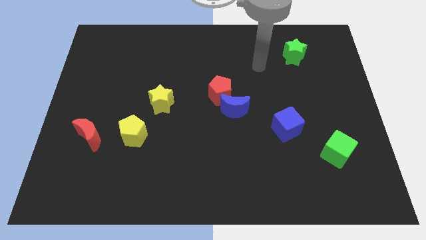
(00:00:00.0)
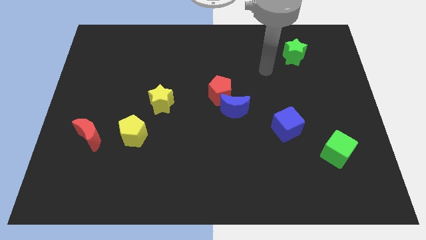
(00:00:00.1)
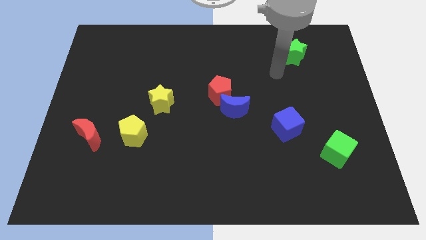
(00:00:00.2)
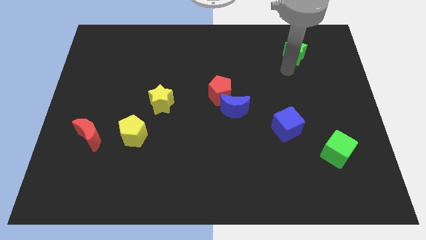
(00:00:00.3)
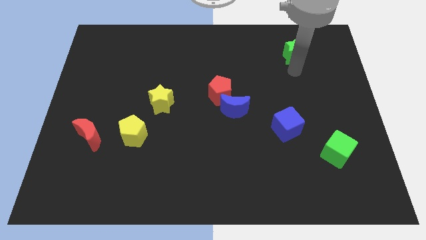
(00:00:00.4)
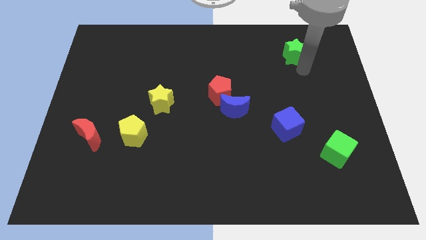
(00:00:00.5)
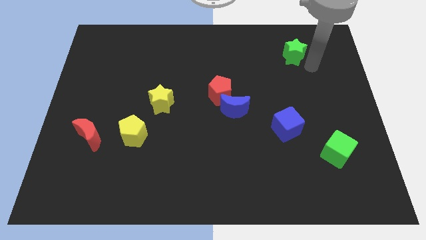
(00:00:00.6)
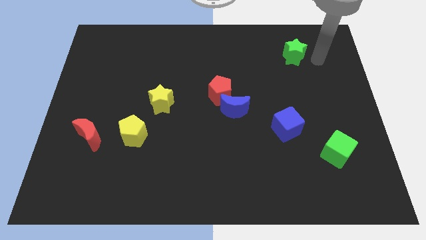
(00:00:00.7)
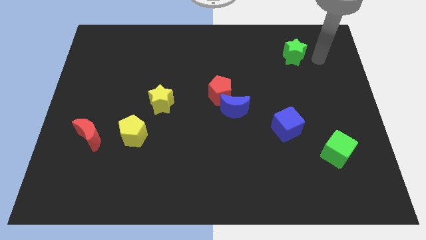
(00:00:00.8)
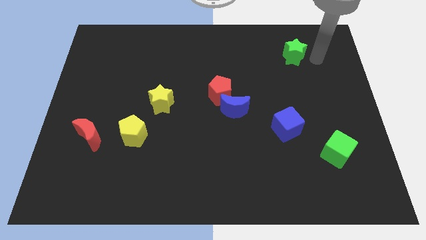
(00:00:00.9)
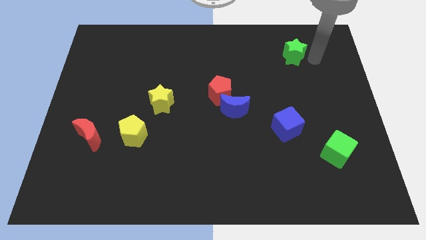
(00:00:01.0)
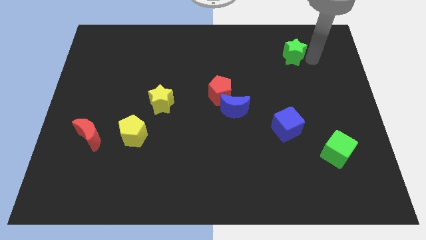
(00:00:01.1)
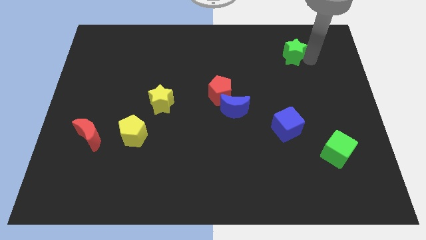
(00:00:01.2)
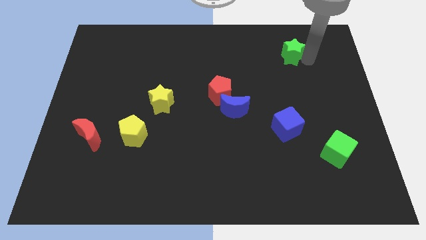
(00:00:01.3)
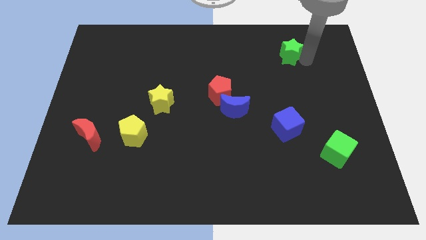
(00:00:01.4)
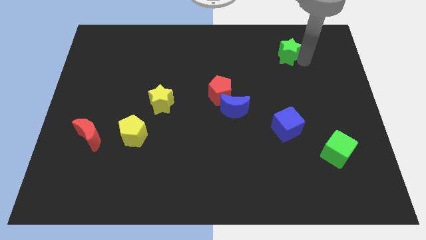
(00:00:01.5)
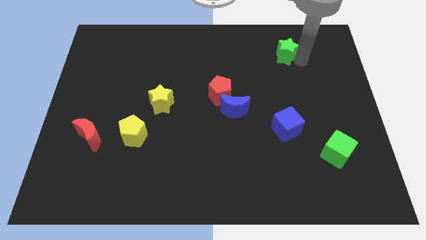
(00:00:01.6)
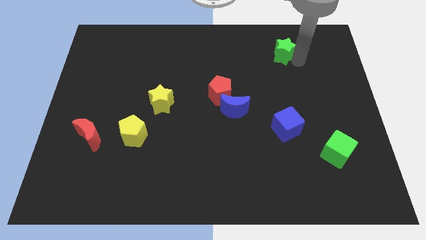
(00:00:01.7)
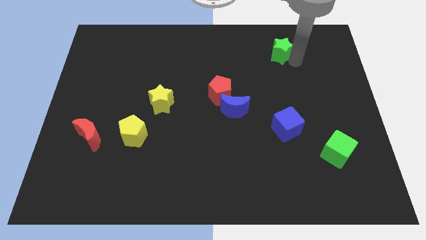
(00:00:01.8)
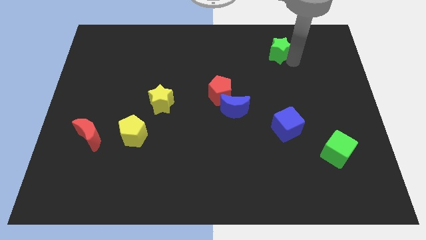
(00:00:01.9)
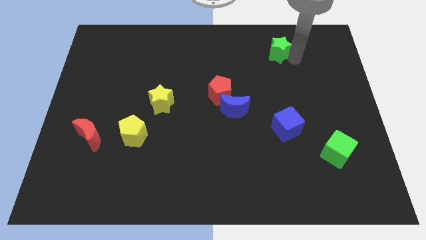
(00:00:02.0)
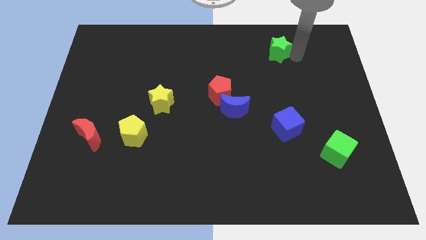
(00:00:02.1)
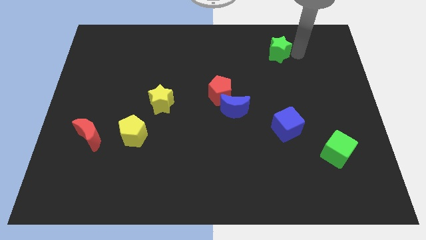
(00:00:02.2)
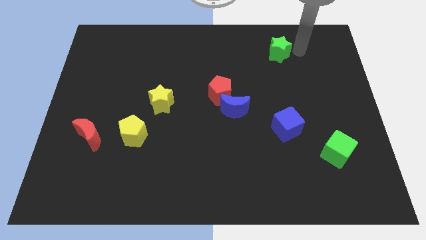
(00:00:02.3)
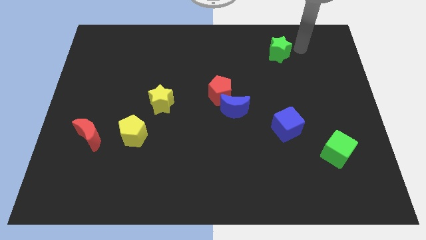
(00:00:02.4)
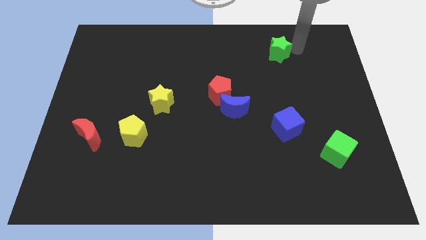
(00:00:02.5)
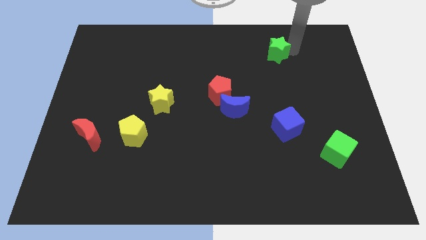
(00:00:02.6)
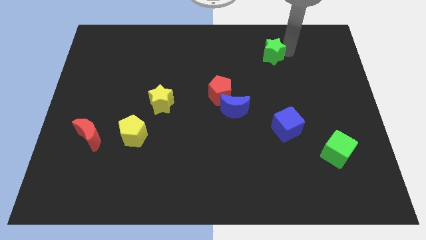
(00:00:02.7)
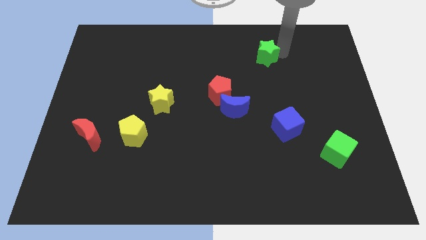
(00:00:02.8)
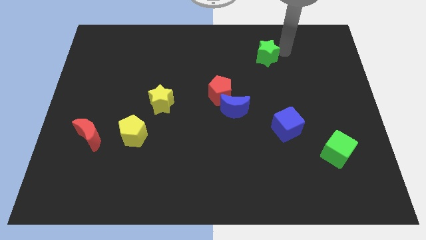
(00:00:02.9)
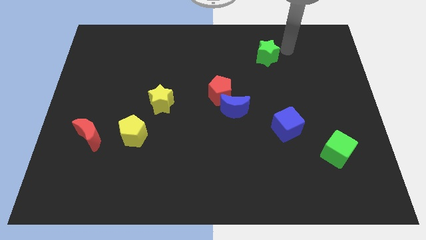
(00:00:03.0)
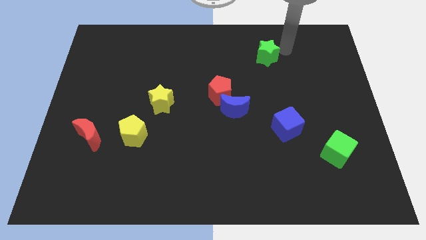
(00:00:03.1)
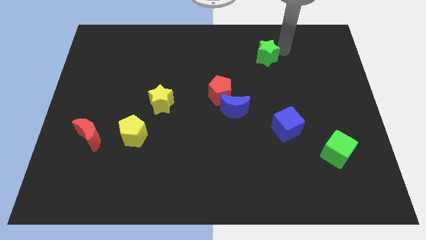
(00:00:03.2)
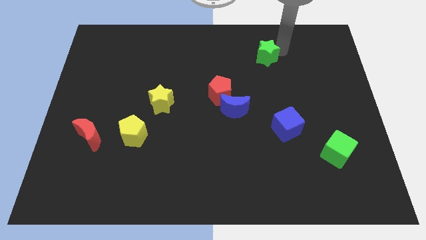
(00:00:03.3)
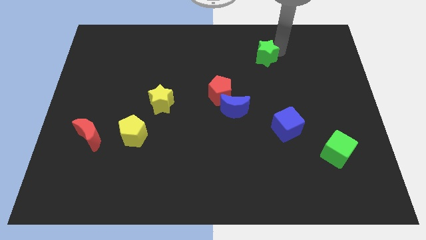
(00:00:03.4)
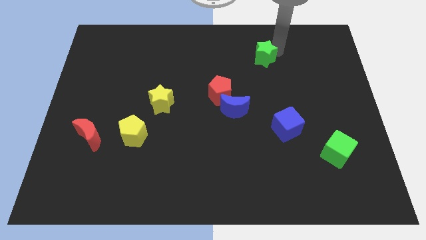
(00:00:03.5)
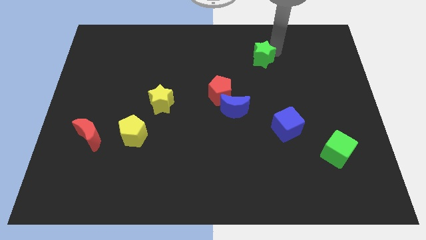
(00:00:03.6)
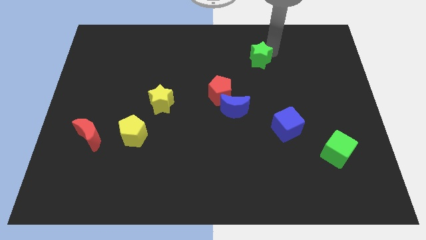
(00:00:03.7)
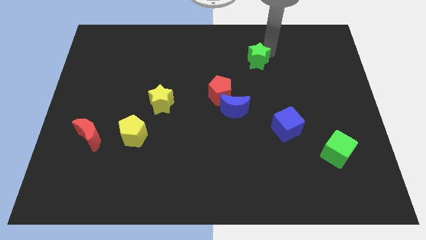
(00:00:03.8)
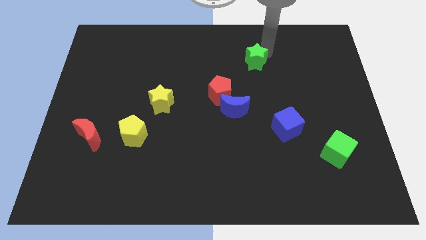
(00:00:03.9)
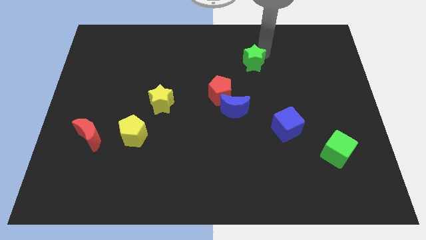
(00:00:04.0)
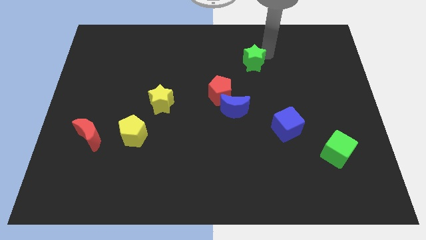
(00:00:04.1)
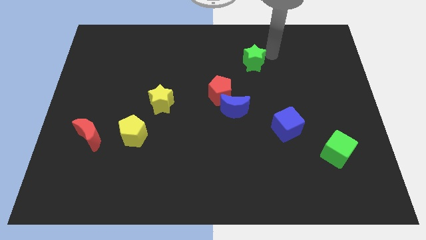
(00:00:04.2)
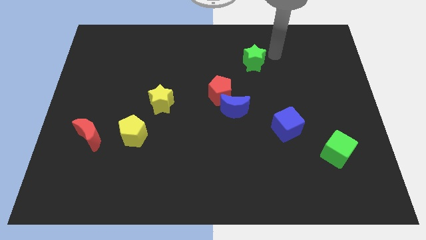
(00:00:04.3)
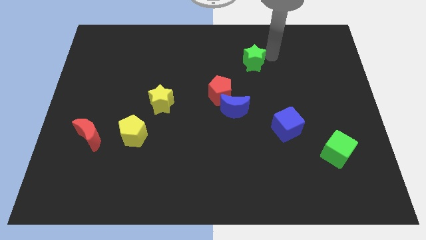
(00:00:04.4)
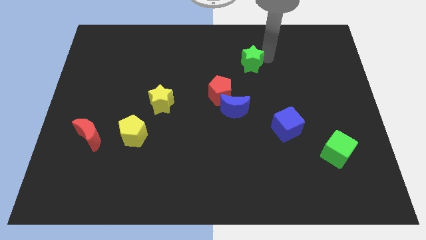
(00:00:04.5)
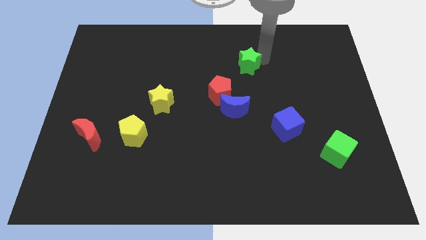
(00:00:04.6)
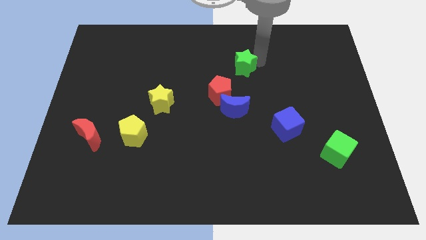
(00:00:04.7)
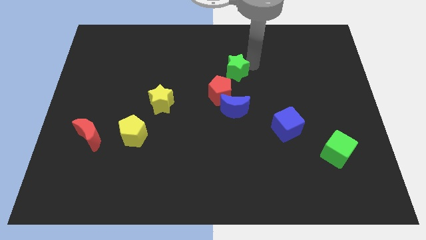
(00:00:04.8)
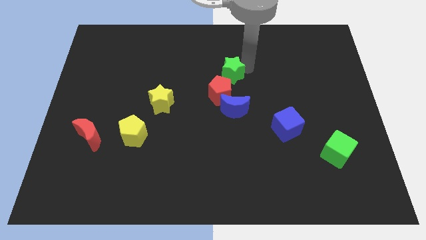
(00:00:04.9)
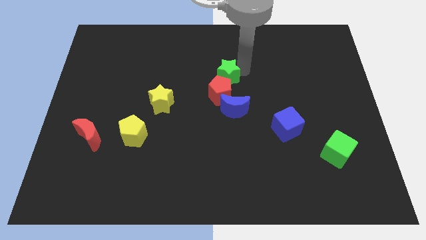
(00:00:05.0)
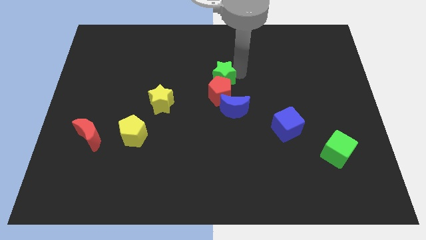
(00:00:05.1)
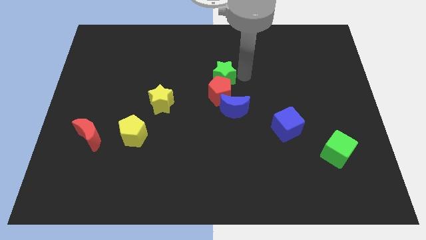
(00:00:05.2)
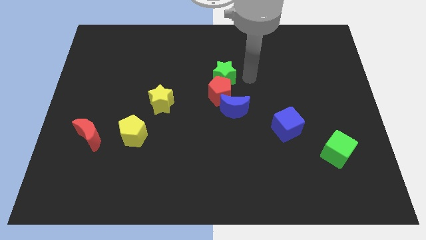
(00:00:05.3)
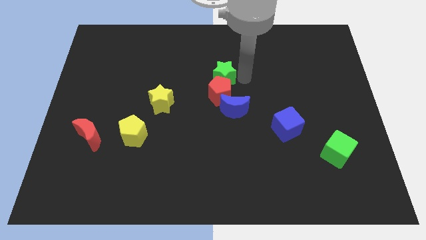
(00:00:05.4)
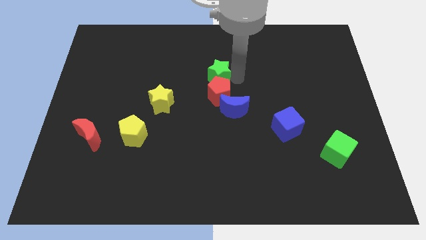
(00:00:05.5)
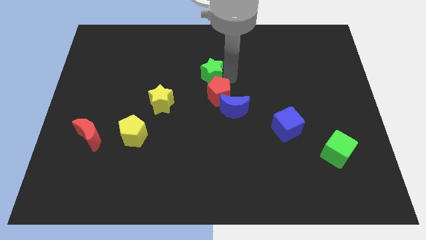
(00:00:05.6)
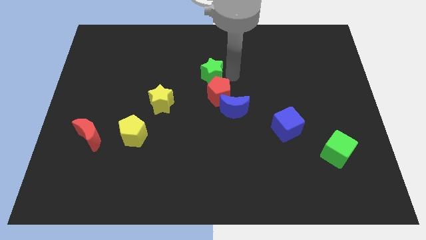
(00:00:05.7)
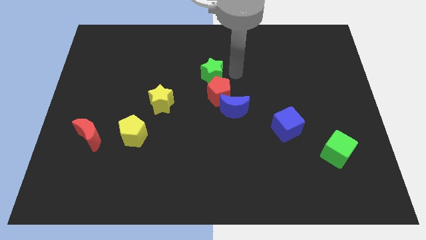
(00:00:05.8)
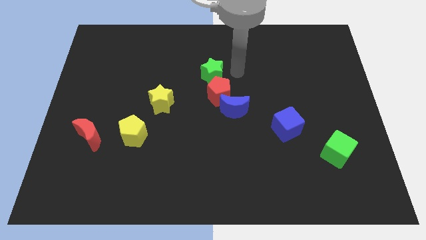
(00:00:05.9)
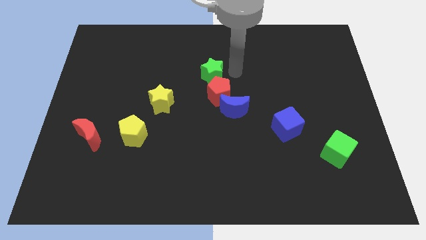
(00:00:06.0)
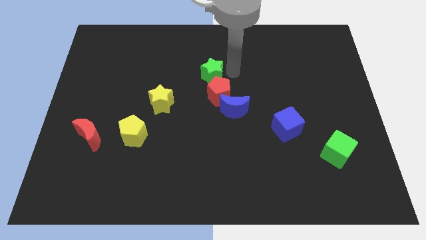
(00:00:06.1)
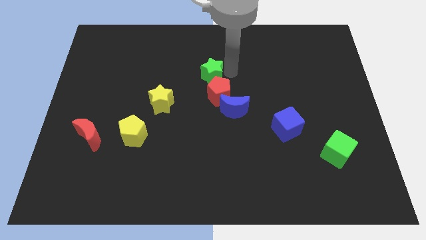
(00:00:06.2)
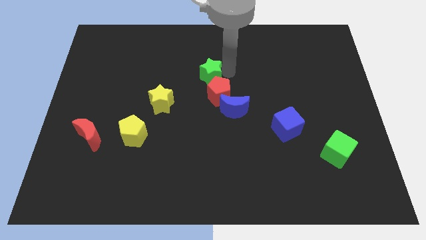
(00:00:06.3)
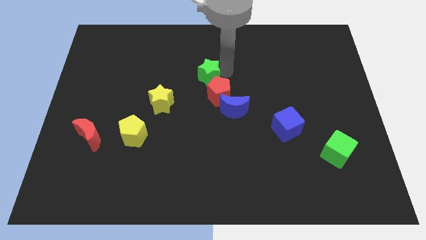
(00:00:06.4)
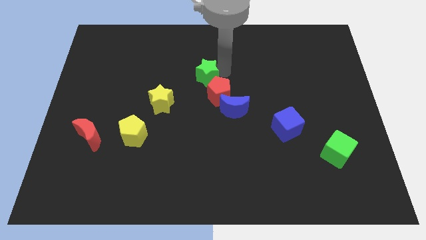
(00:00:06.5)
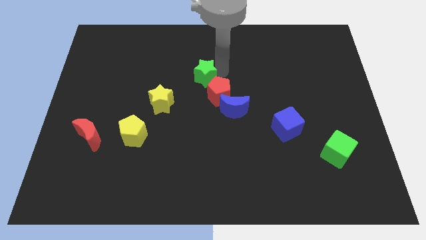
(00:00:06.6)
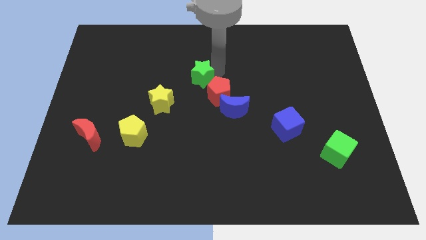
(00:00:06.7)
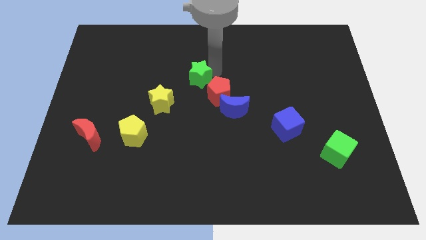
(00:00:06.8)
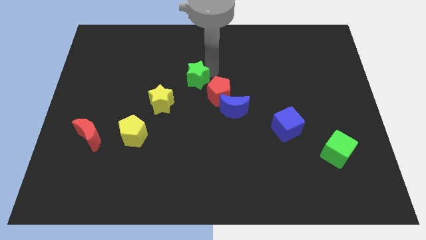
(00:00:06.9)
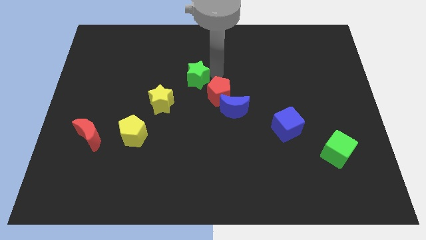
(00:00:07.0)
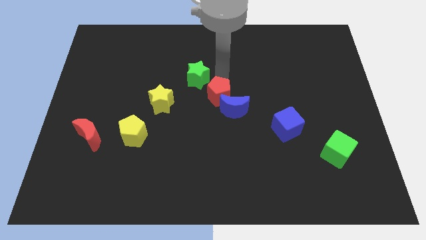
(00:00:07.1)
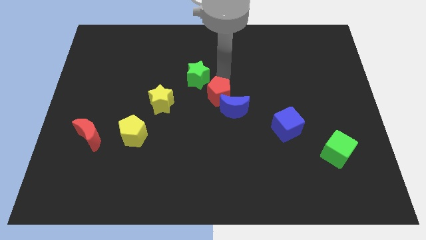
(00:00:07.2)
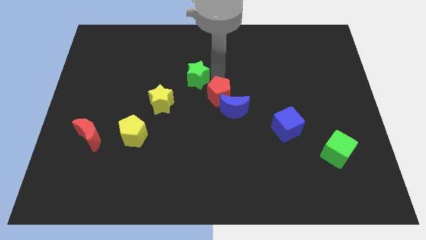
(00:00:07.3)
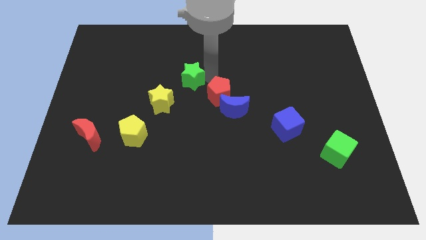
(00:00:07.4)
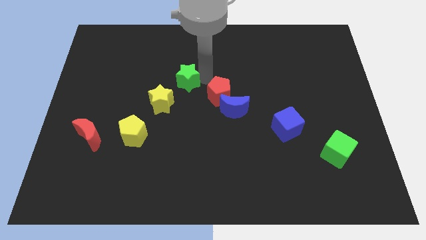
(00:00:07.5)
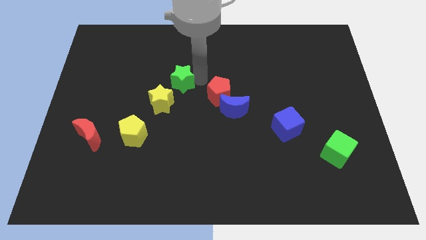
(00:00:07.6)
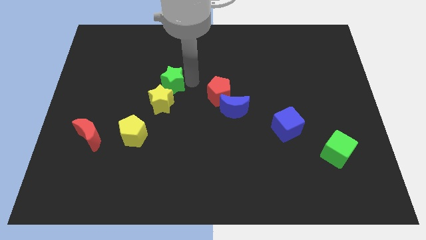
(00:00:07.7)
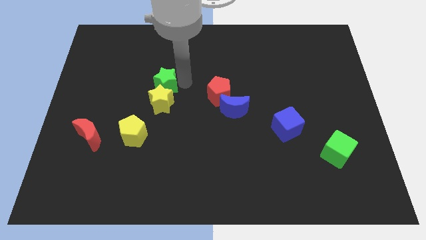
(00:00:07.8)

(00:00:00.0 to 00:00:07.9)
move the green star diagonally up and to the left of the yellow star
